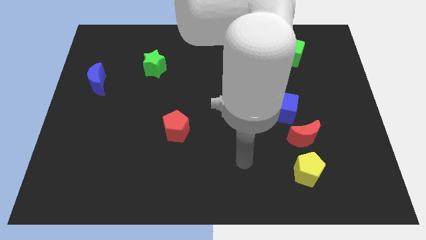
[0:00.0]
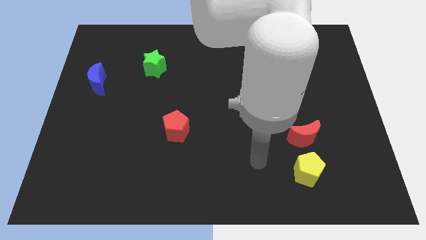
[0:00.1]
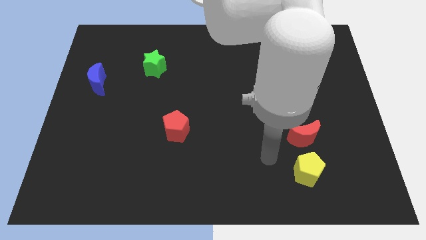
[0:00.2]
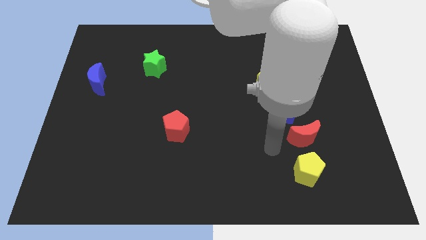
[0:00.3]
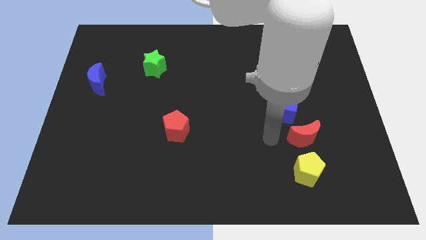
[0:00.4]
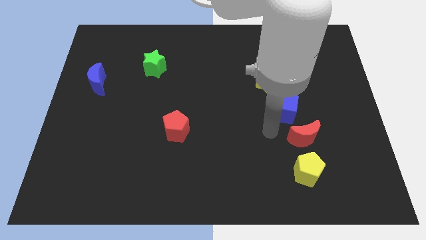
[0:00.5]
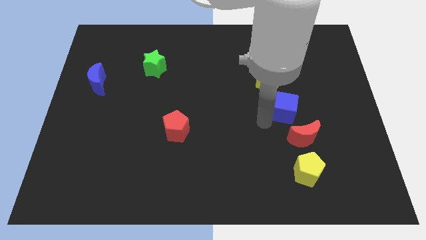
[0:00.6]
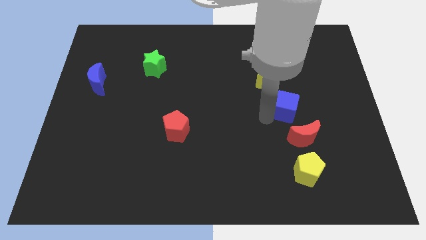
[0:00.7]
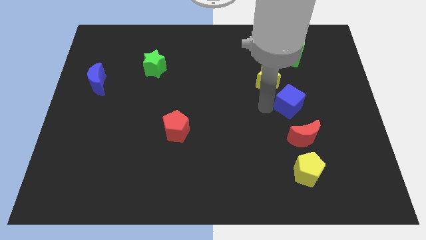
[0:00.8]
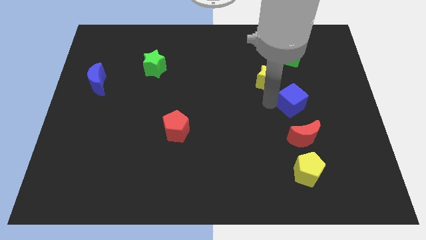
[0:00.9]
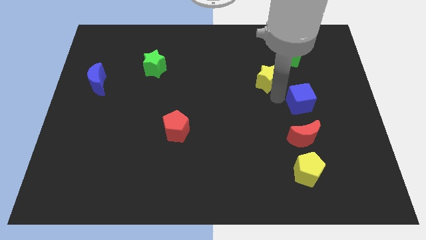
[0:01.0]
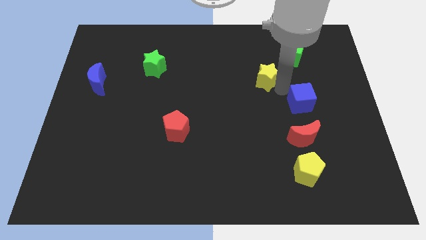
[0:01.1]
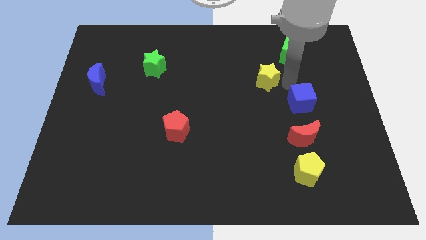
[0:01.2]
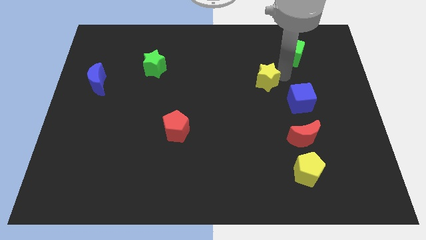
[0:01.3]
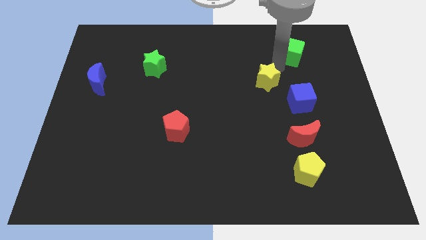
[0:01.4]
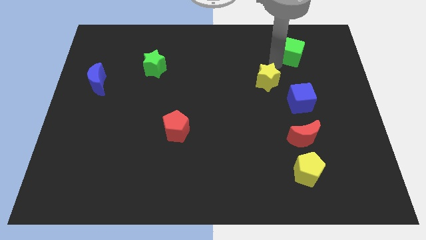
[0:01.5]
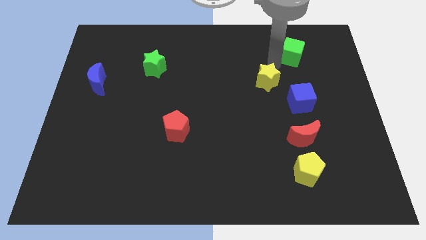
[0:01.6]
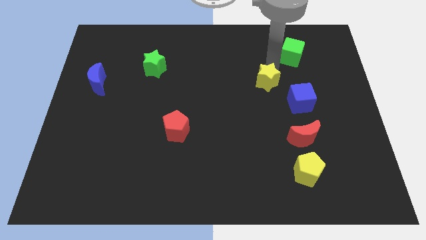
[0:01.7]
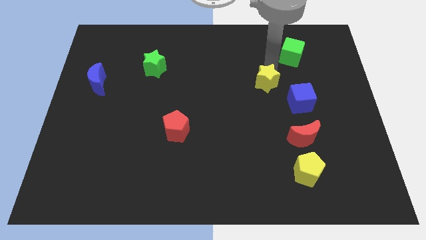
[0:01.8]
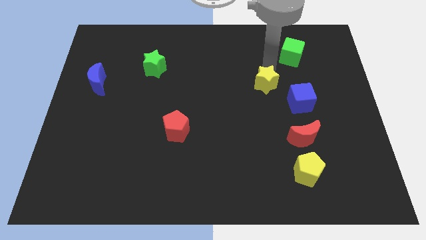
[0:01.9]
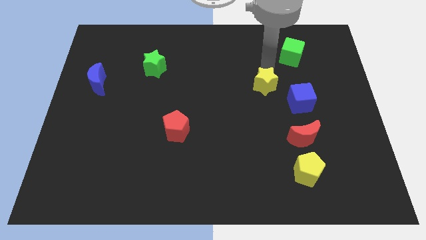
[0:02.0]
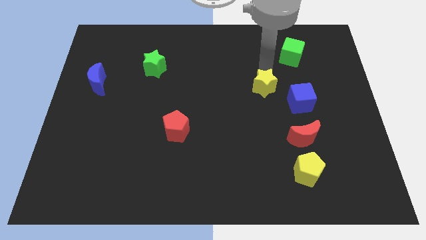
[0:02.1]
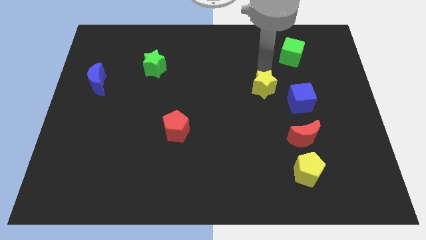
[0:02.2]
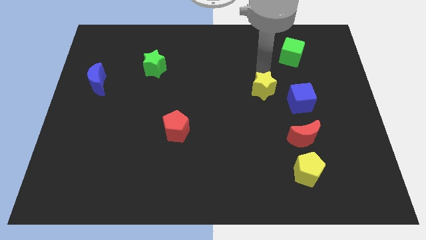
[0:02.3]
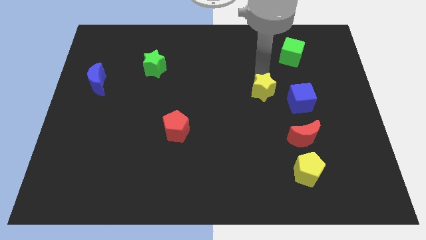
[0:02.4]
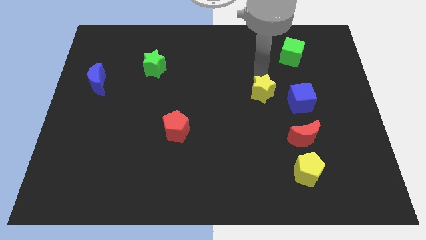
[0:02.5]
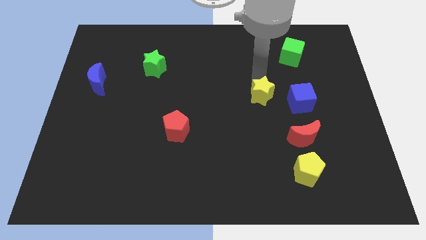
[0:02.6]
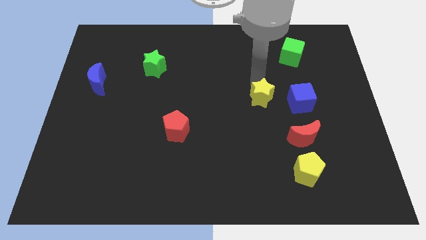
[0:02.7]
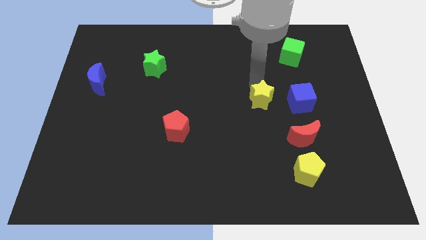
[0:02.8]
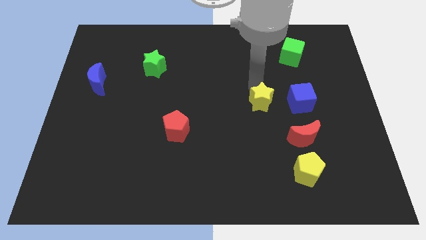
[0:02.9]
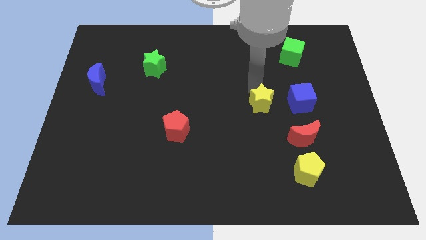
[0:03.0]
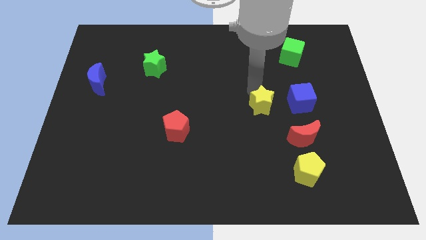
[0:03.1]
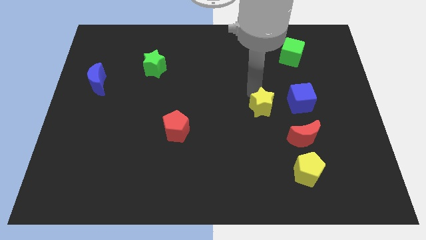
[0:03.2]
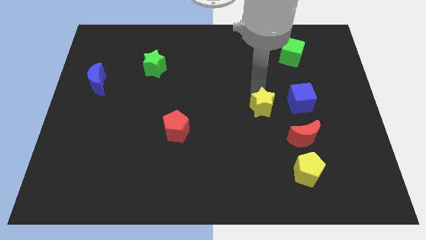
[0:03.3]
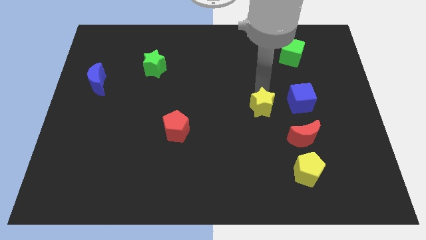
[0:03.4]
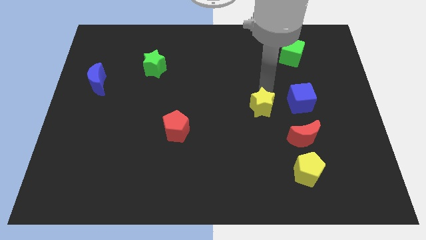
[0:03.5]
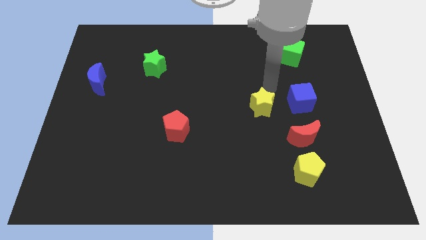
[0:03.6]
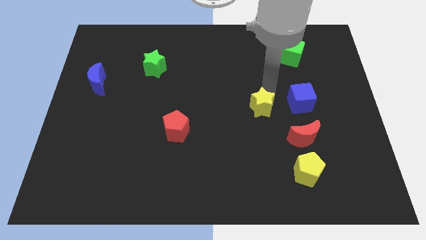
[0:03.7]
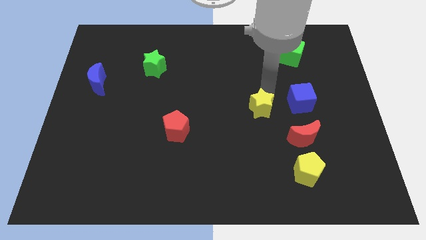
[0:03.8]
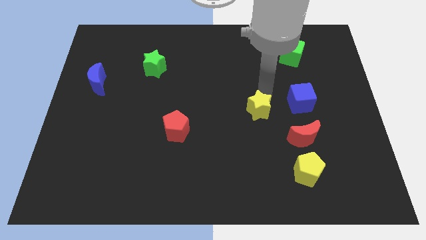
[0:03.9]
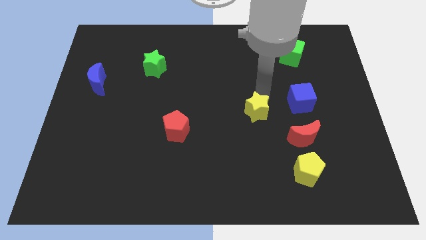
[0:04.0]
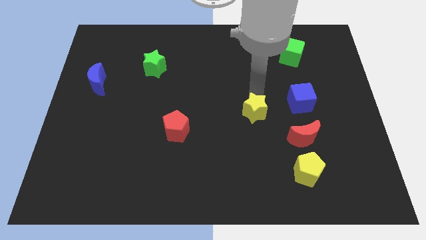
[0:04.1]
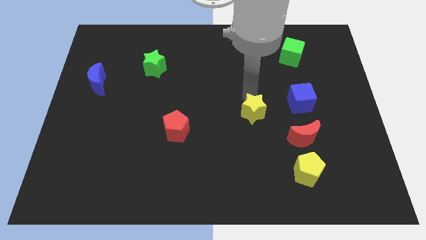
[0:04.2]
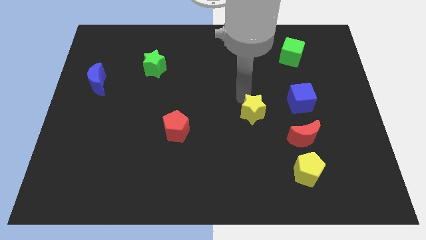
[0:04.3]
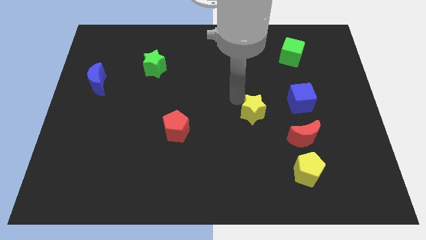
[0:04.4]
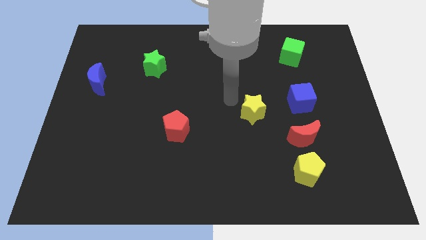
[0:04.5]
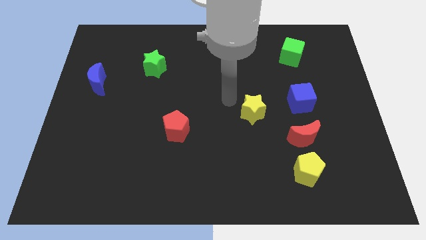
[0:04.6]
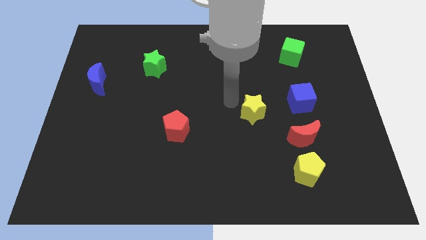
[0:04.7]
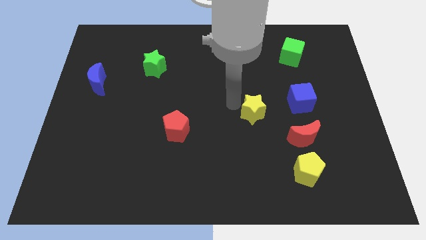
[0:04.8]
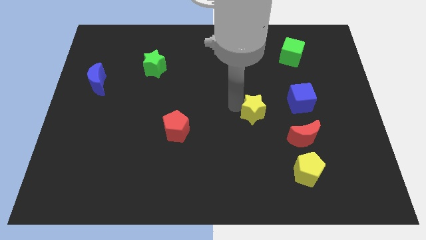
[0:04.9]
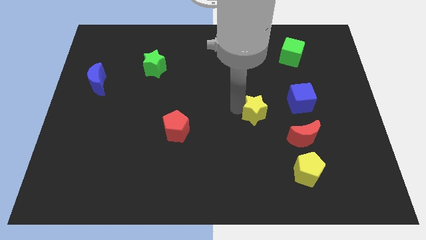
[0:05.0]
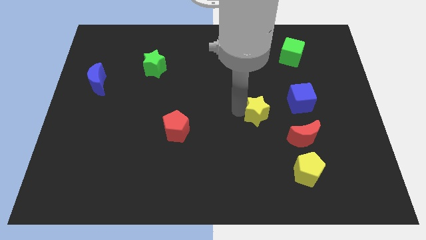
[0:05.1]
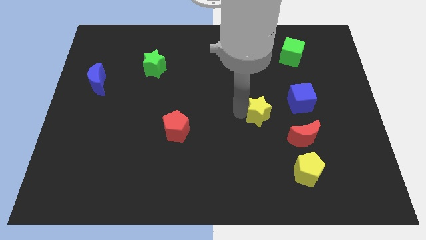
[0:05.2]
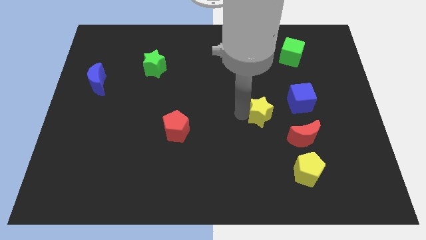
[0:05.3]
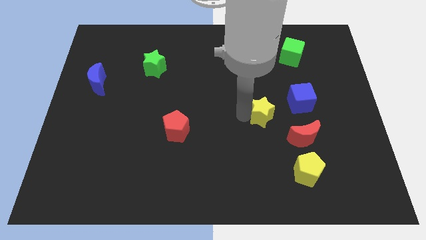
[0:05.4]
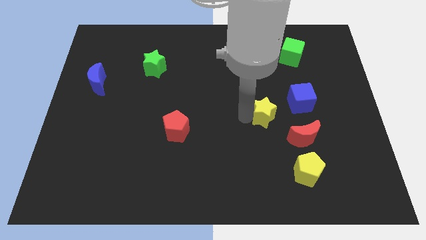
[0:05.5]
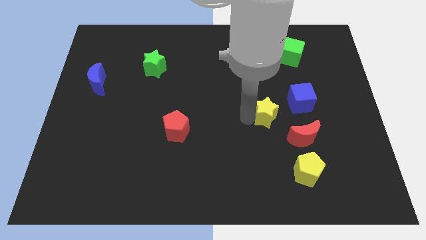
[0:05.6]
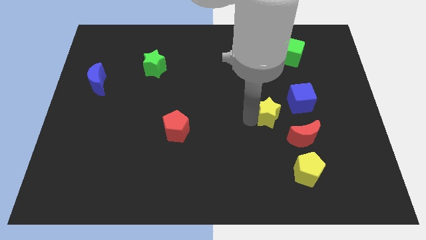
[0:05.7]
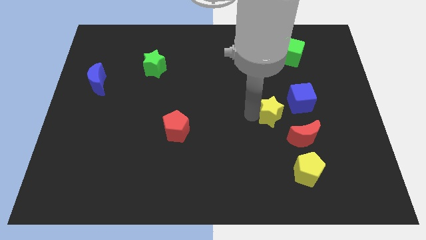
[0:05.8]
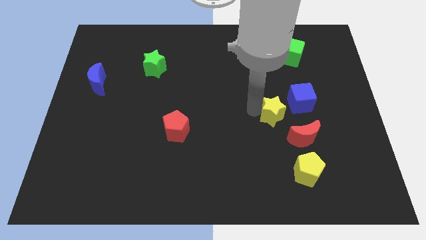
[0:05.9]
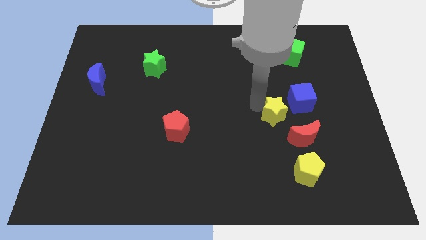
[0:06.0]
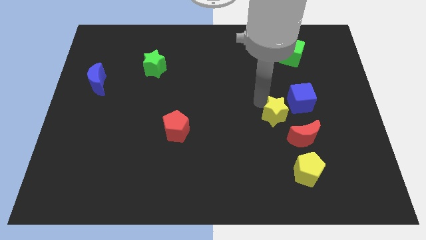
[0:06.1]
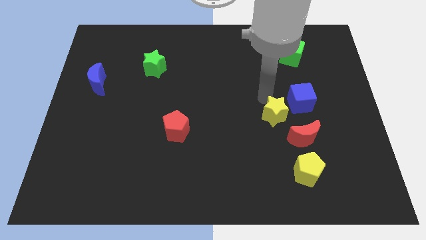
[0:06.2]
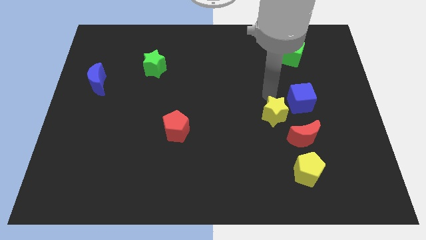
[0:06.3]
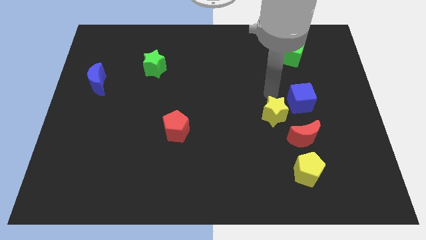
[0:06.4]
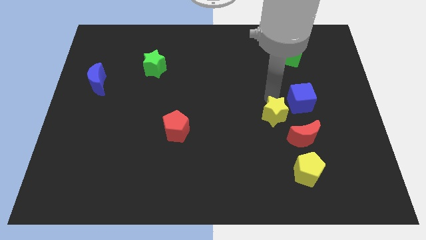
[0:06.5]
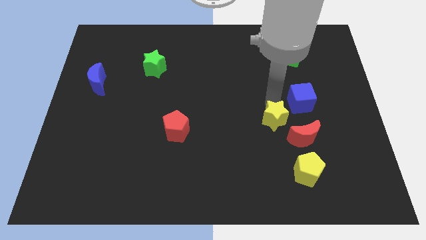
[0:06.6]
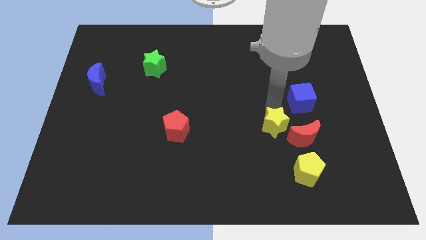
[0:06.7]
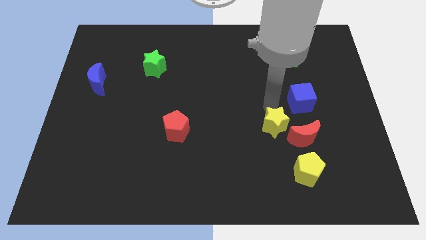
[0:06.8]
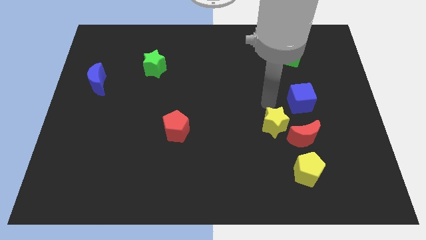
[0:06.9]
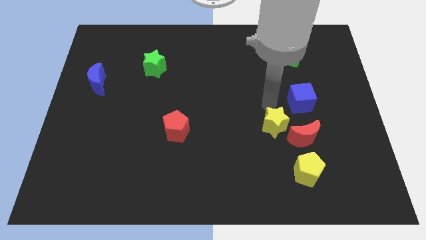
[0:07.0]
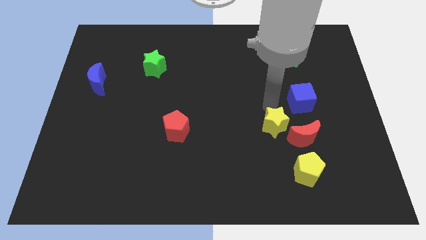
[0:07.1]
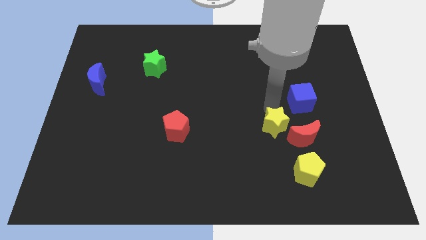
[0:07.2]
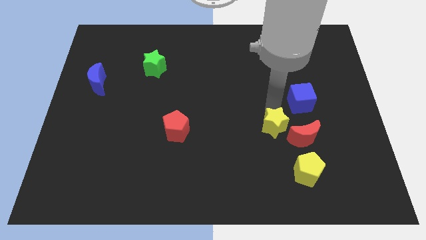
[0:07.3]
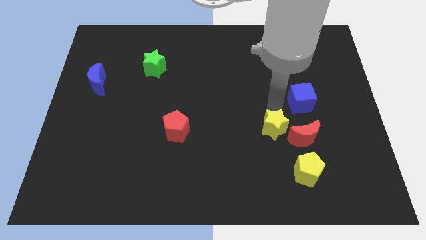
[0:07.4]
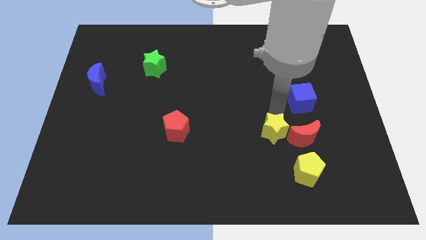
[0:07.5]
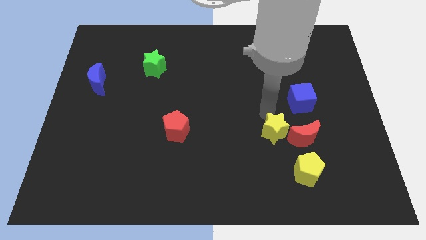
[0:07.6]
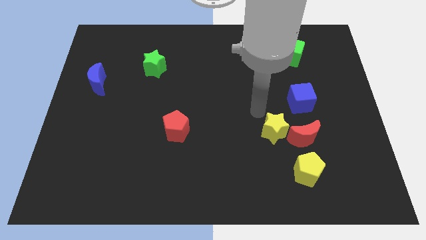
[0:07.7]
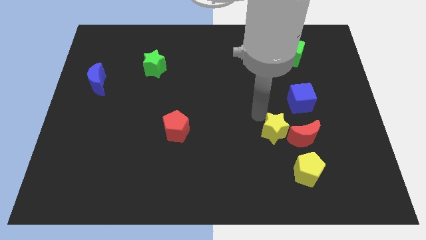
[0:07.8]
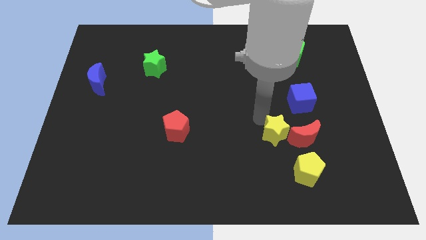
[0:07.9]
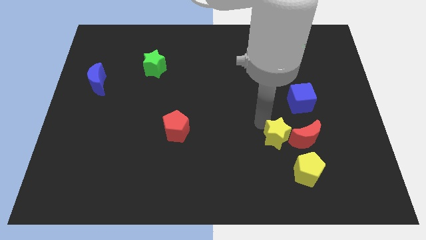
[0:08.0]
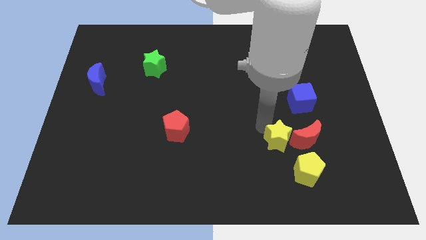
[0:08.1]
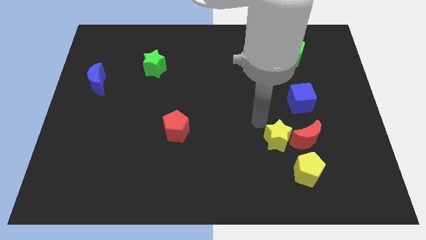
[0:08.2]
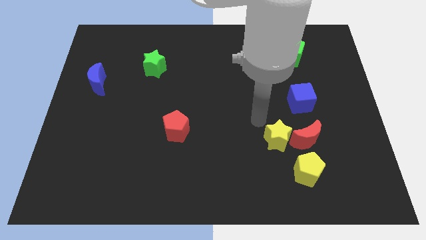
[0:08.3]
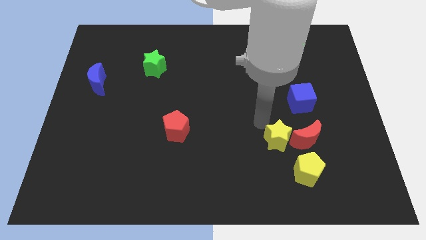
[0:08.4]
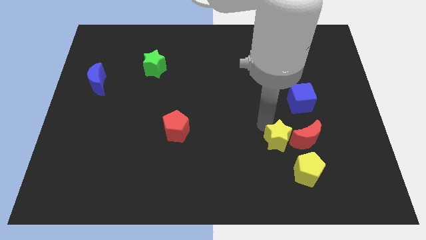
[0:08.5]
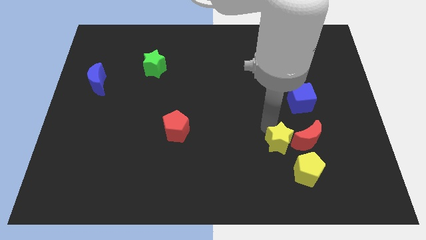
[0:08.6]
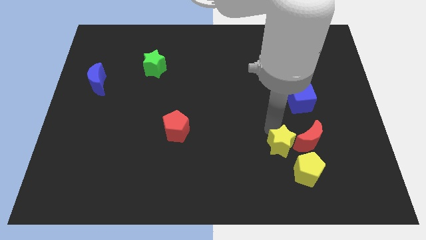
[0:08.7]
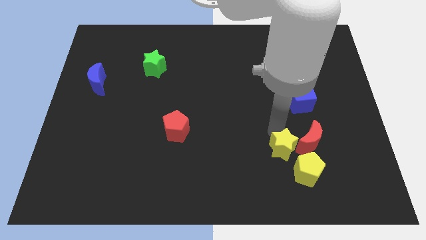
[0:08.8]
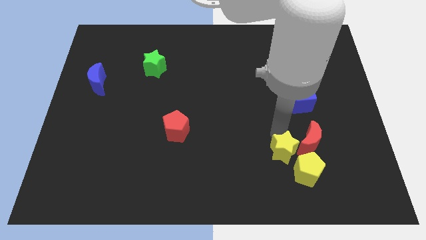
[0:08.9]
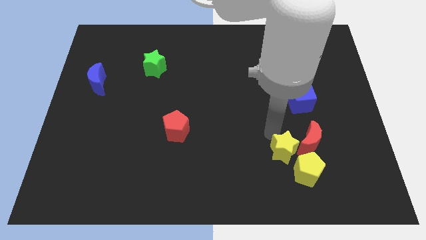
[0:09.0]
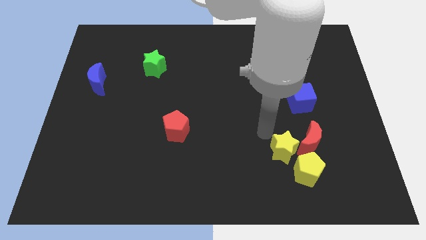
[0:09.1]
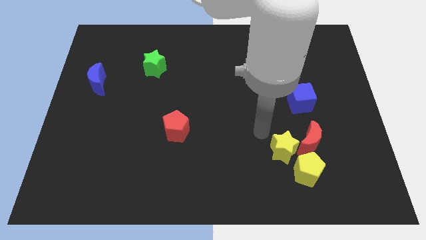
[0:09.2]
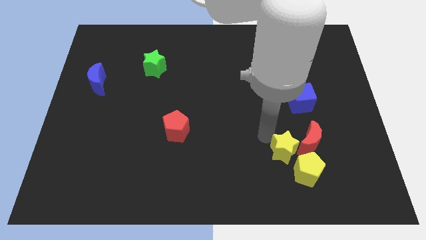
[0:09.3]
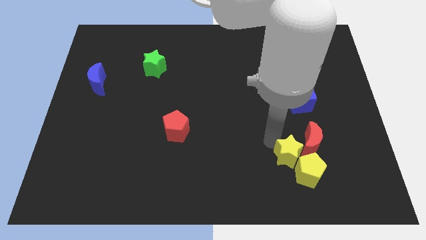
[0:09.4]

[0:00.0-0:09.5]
put the yellow star towards the yellow pentagon
